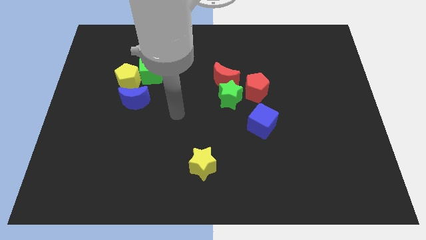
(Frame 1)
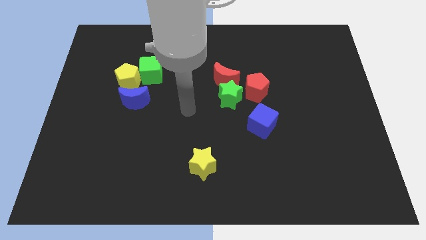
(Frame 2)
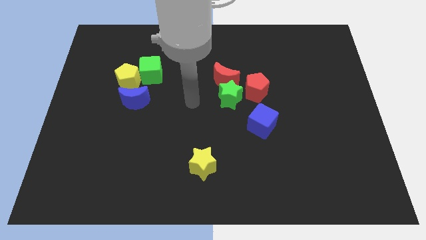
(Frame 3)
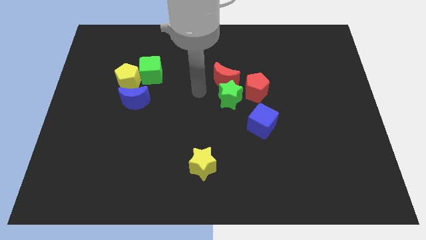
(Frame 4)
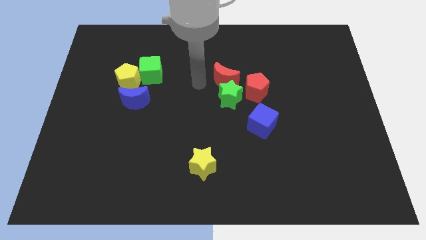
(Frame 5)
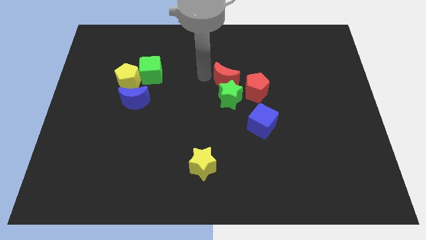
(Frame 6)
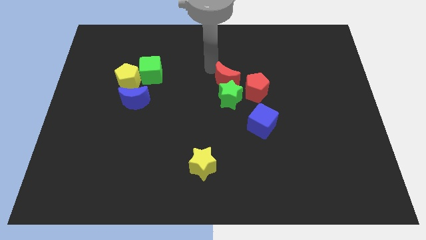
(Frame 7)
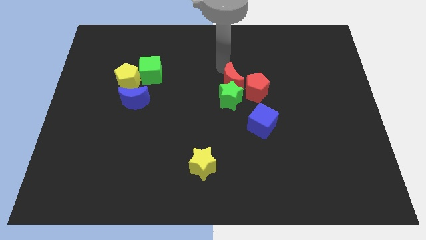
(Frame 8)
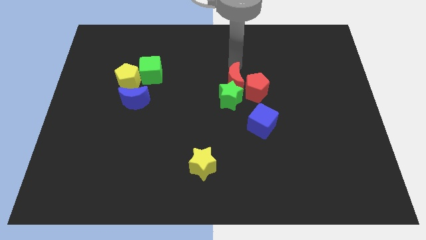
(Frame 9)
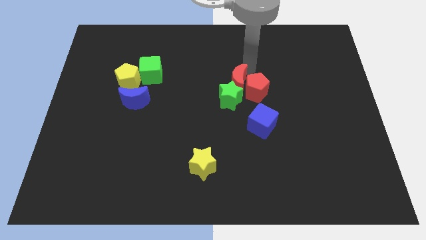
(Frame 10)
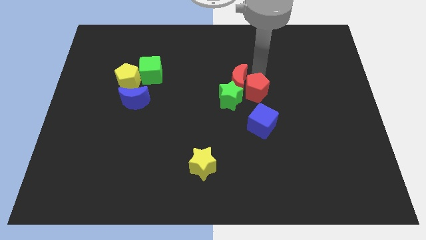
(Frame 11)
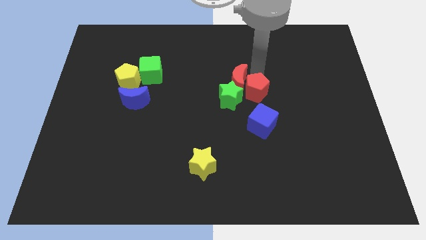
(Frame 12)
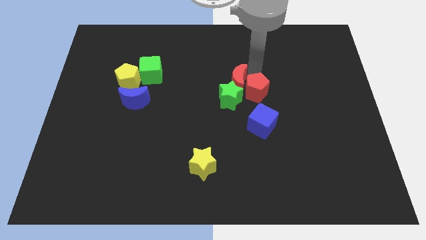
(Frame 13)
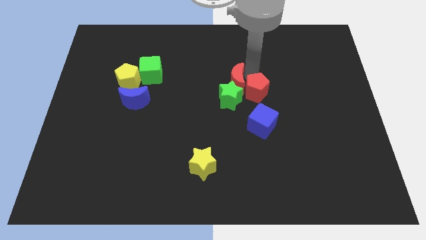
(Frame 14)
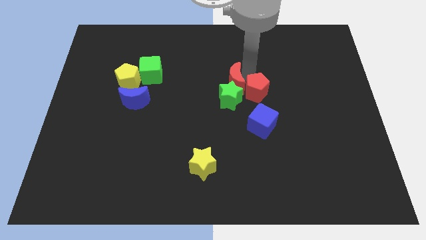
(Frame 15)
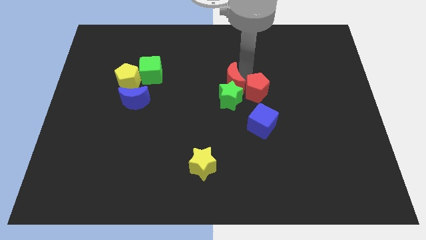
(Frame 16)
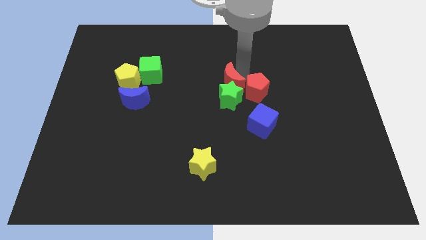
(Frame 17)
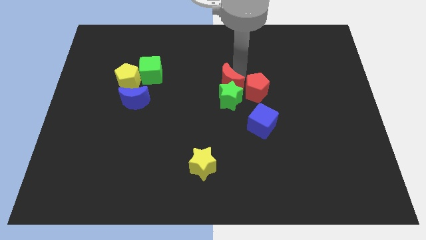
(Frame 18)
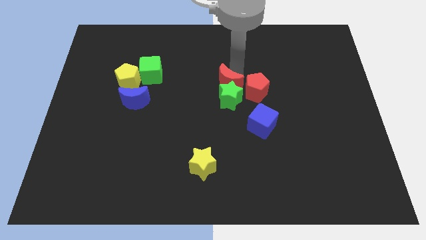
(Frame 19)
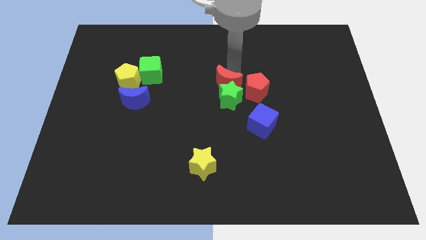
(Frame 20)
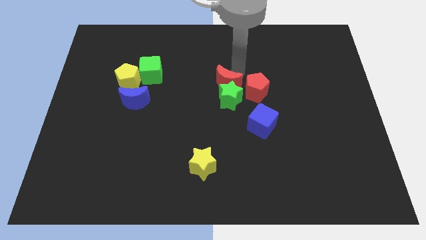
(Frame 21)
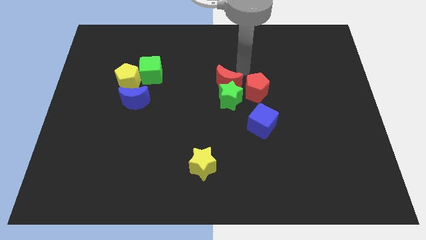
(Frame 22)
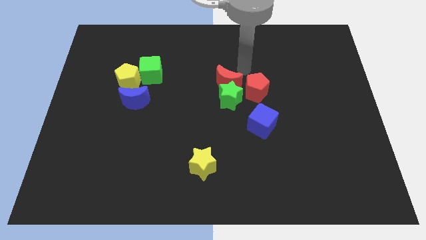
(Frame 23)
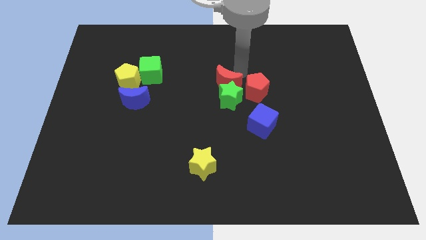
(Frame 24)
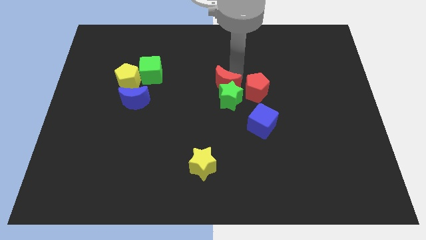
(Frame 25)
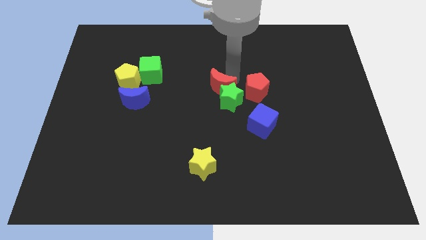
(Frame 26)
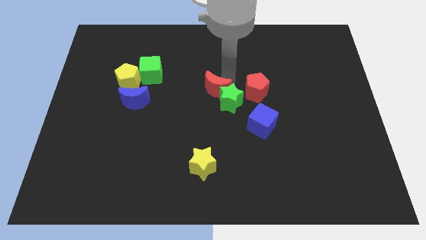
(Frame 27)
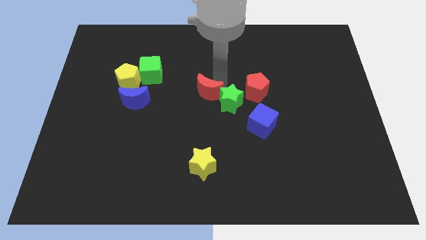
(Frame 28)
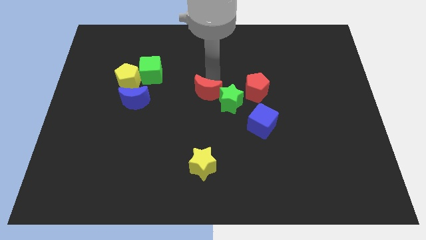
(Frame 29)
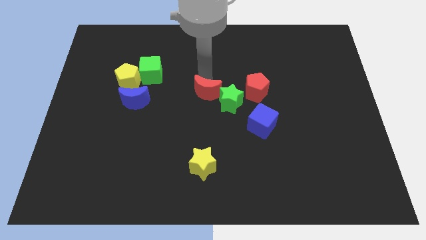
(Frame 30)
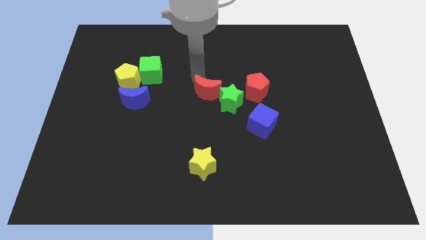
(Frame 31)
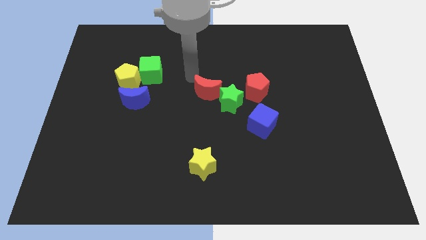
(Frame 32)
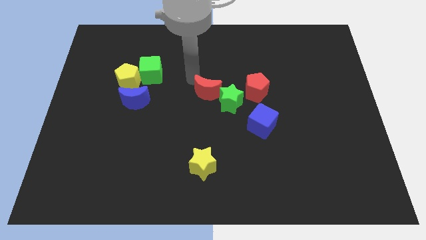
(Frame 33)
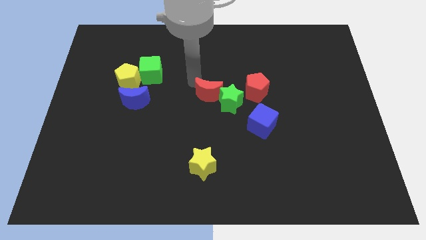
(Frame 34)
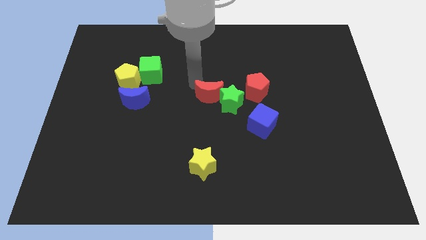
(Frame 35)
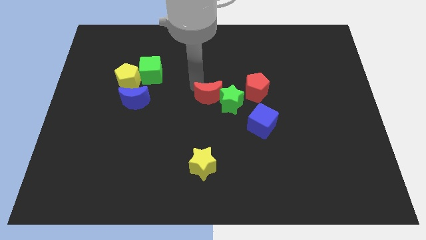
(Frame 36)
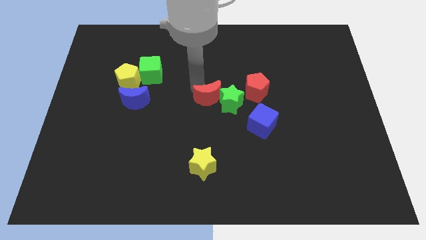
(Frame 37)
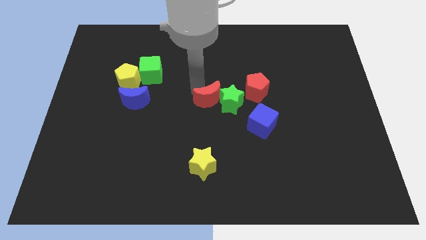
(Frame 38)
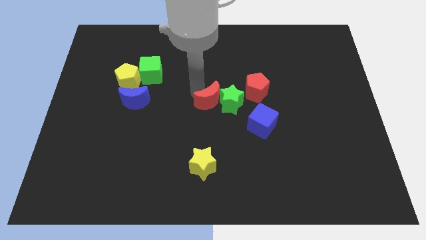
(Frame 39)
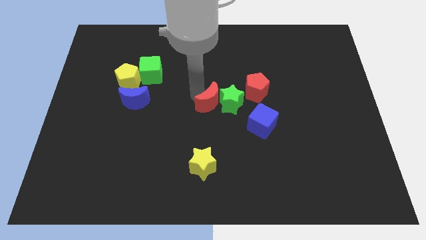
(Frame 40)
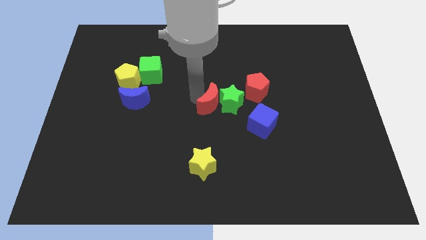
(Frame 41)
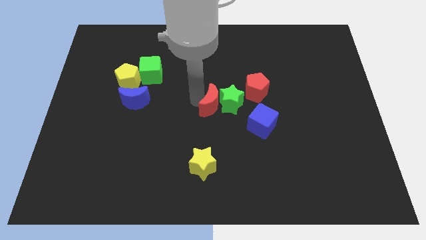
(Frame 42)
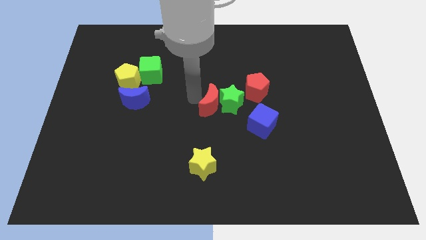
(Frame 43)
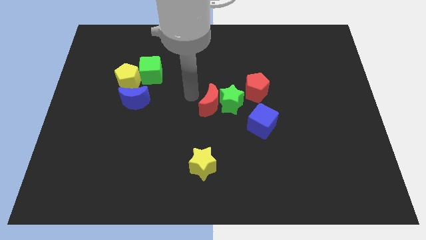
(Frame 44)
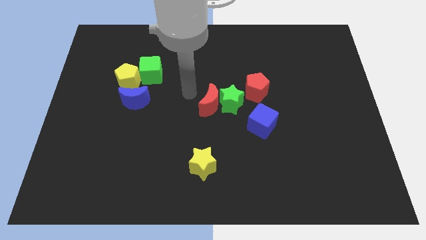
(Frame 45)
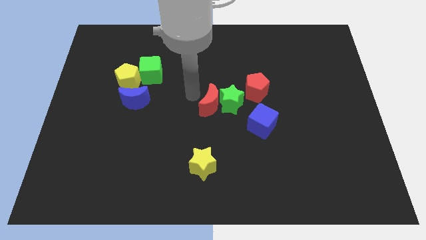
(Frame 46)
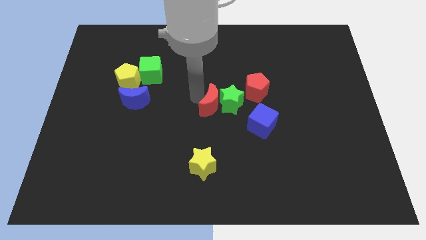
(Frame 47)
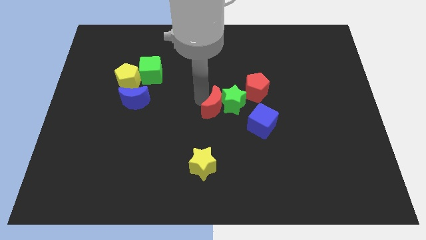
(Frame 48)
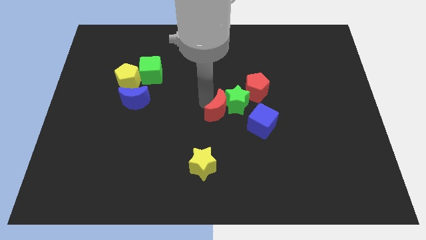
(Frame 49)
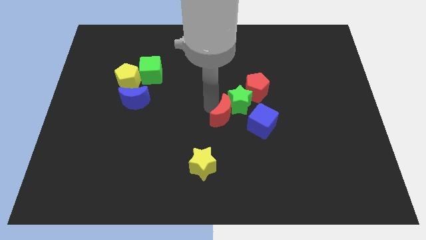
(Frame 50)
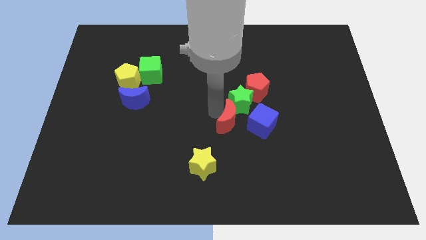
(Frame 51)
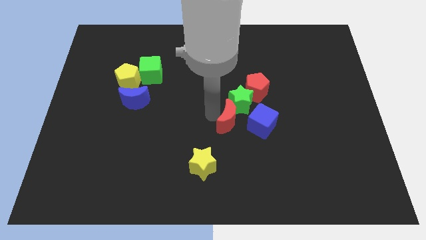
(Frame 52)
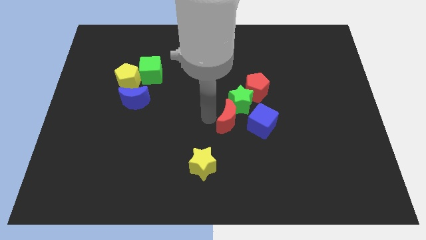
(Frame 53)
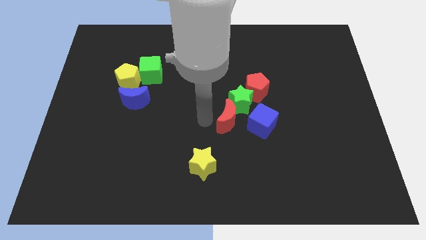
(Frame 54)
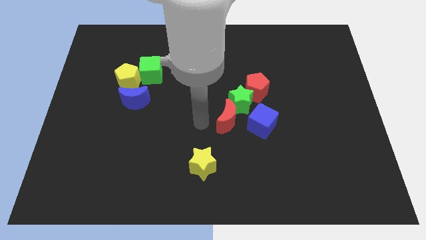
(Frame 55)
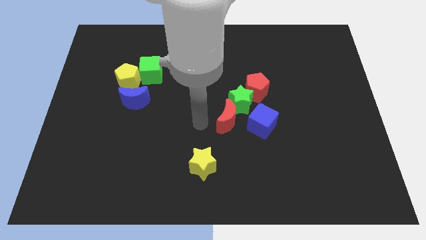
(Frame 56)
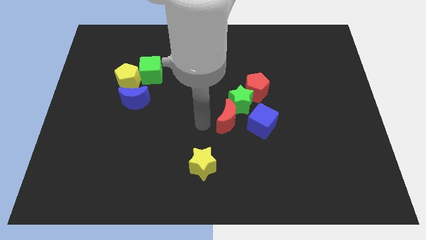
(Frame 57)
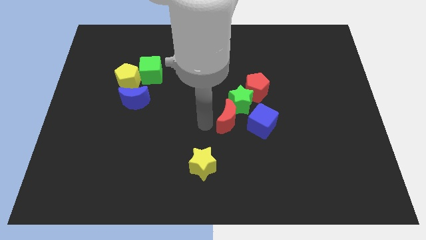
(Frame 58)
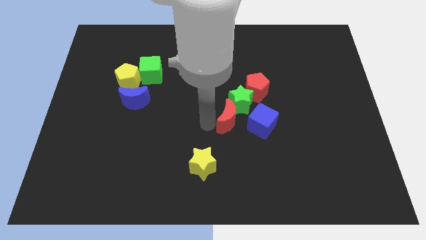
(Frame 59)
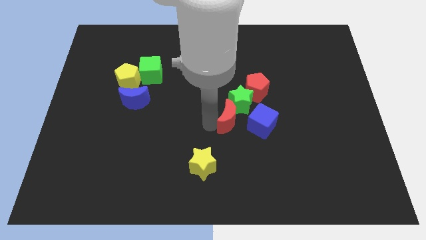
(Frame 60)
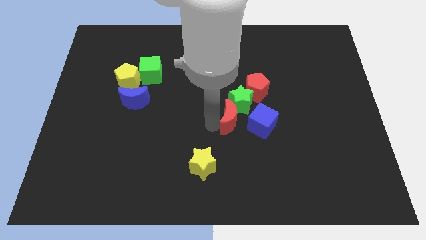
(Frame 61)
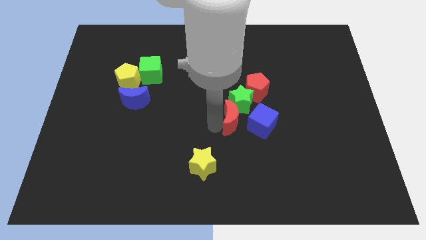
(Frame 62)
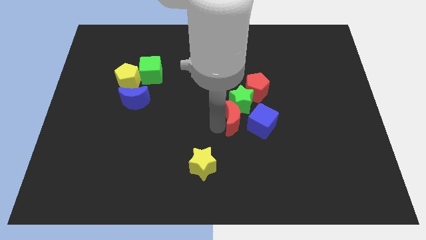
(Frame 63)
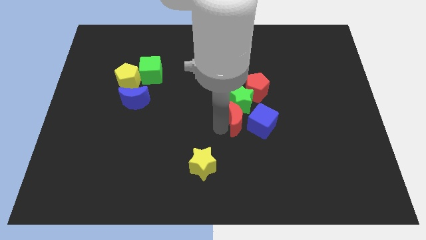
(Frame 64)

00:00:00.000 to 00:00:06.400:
push the red moon close to the blue cube

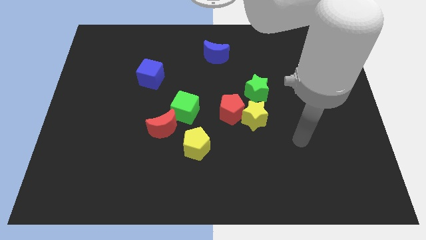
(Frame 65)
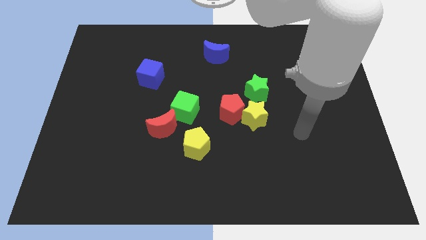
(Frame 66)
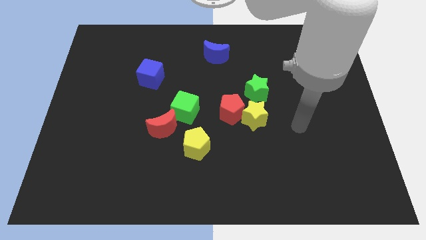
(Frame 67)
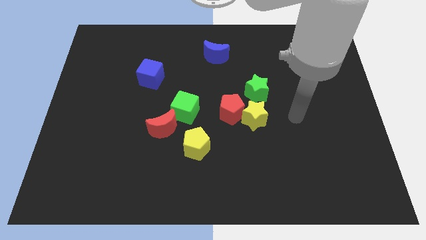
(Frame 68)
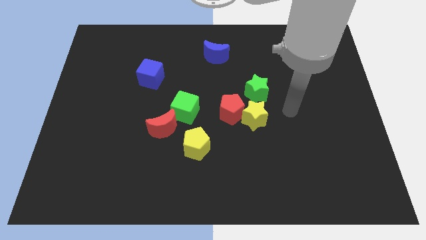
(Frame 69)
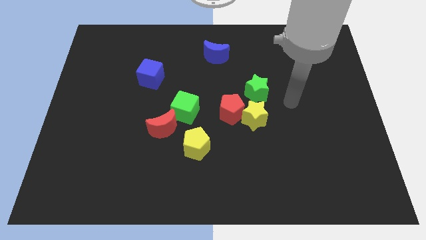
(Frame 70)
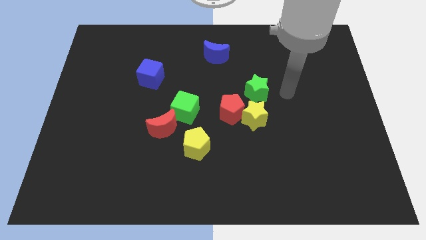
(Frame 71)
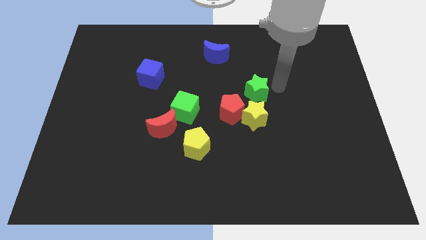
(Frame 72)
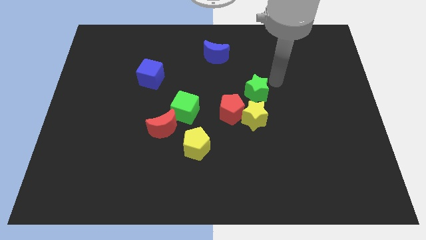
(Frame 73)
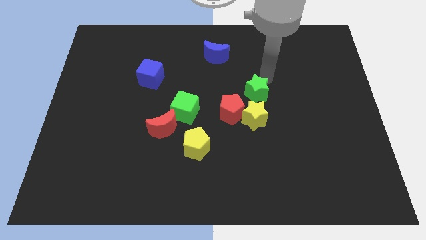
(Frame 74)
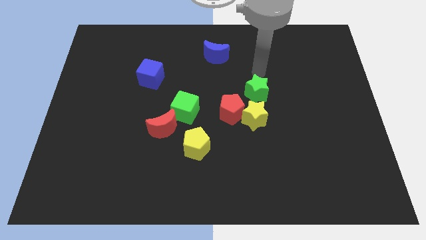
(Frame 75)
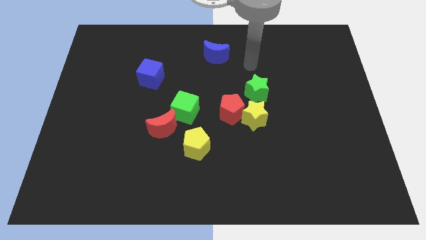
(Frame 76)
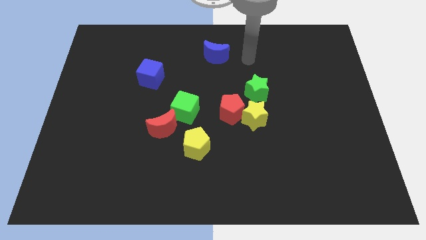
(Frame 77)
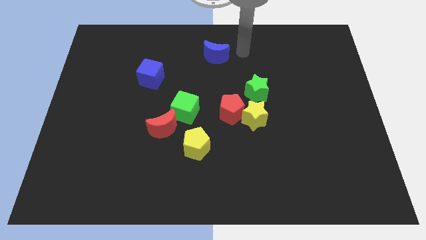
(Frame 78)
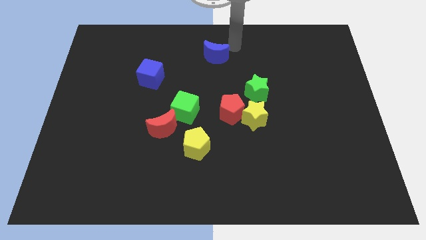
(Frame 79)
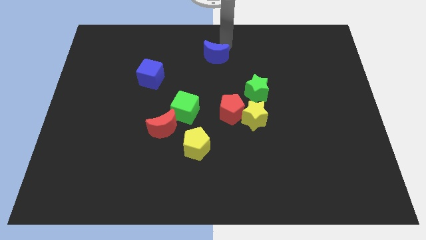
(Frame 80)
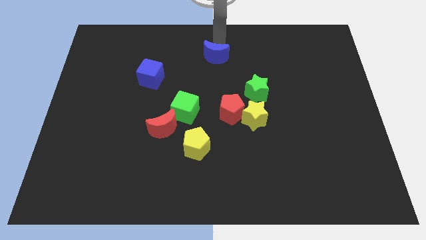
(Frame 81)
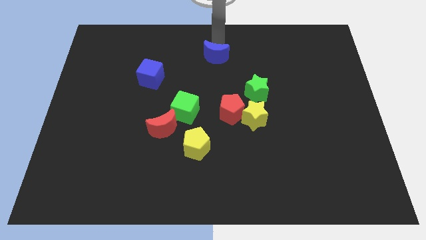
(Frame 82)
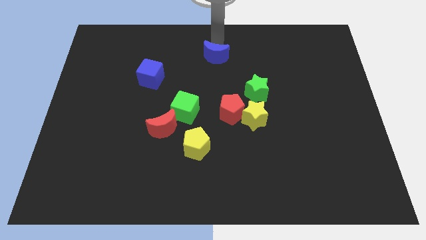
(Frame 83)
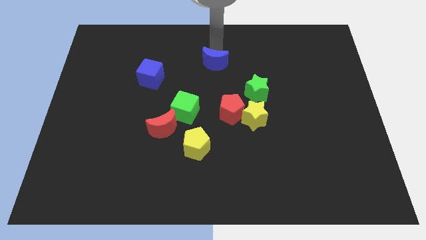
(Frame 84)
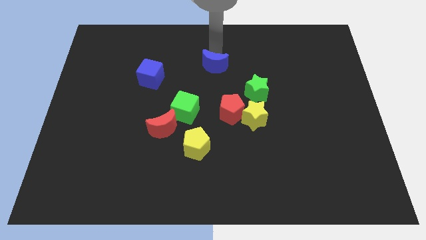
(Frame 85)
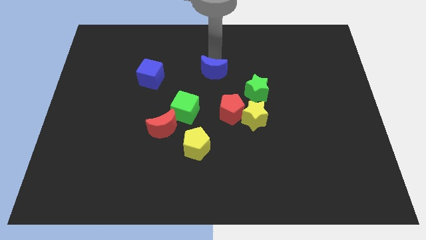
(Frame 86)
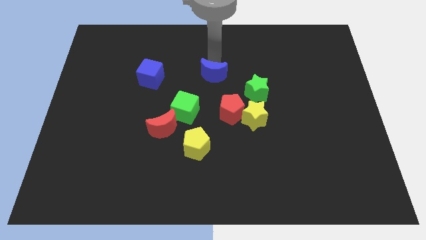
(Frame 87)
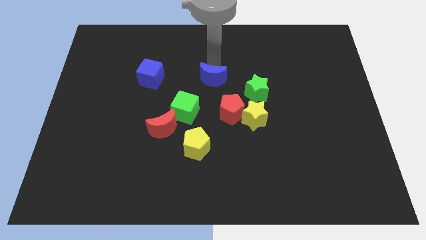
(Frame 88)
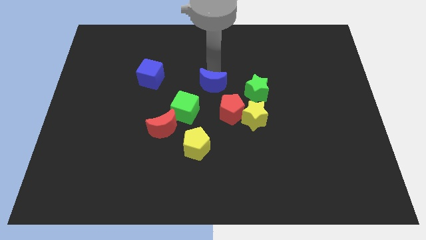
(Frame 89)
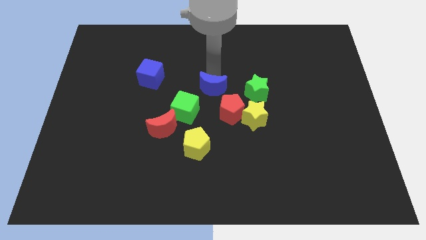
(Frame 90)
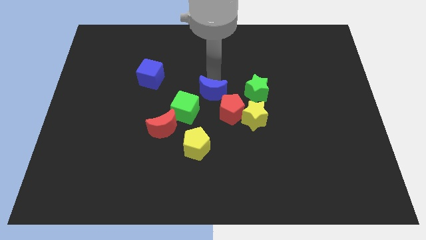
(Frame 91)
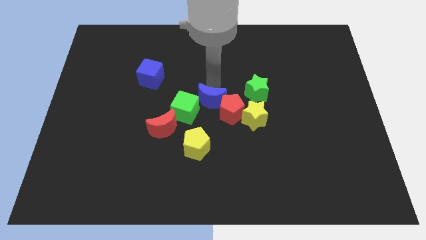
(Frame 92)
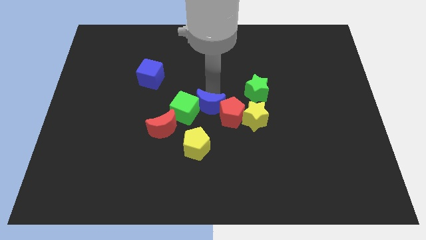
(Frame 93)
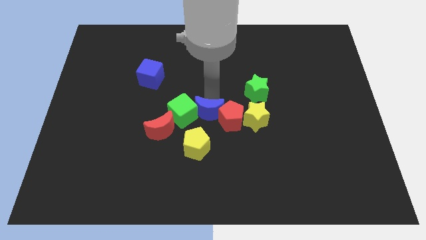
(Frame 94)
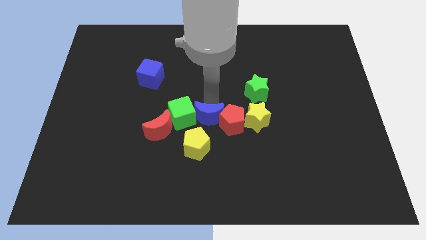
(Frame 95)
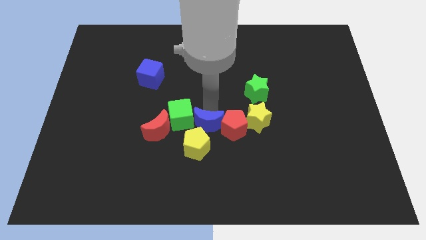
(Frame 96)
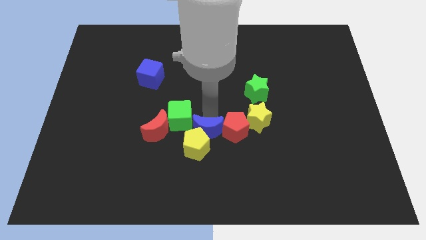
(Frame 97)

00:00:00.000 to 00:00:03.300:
slide the blue moon close to the yellow pentagon
